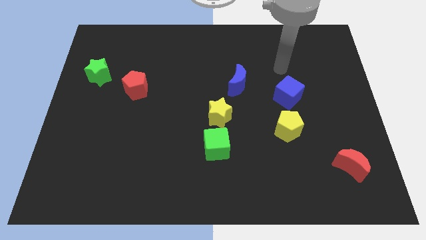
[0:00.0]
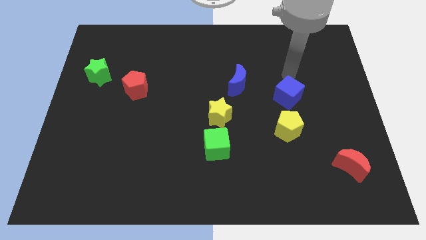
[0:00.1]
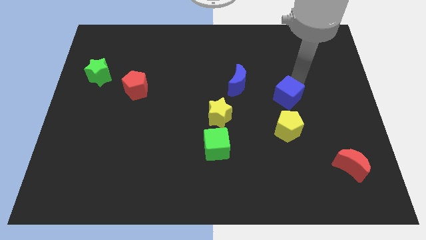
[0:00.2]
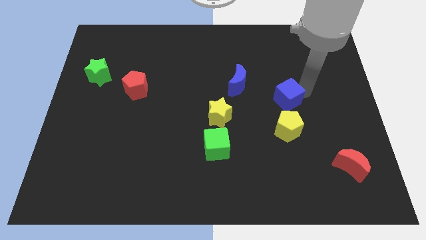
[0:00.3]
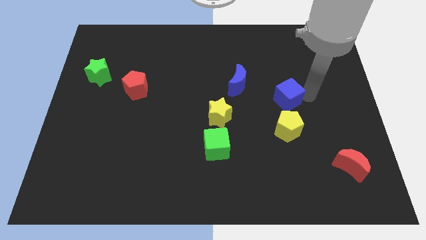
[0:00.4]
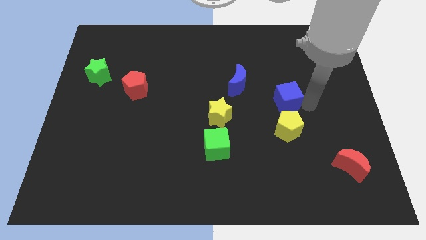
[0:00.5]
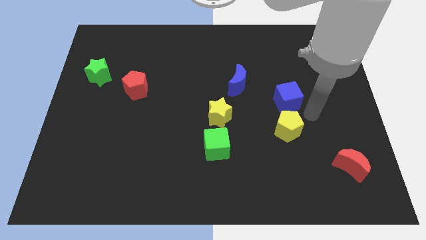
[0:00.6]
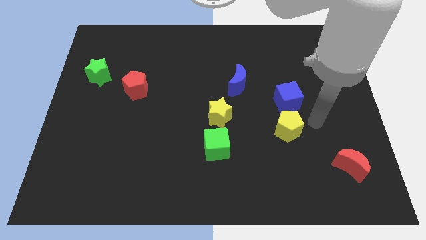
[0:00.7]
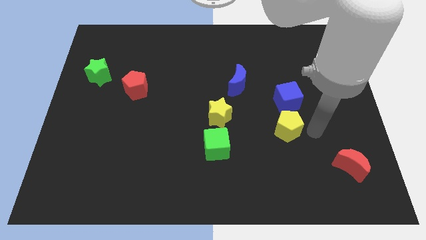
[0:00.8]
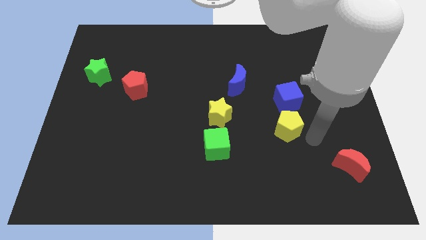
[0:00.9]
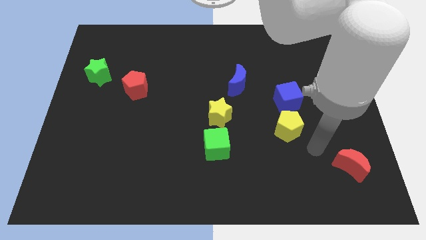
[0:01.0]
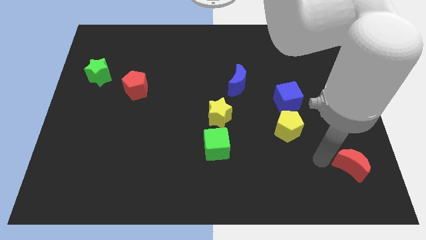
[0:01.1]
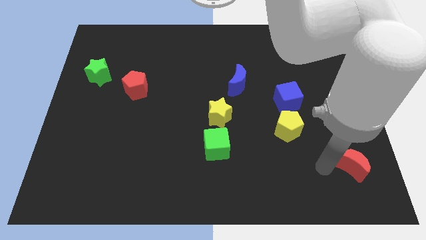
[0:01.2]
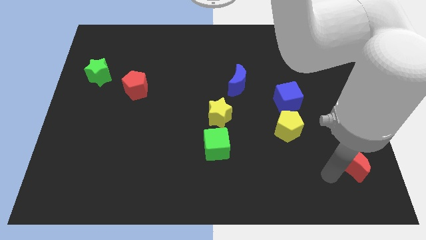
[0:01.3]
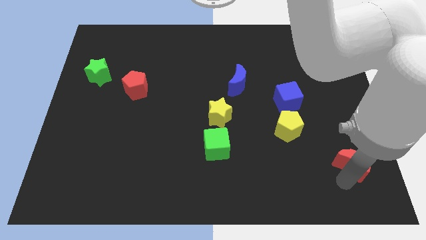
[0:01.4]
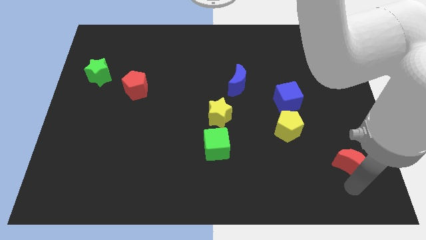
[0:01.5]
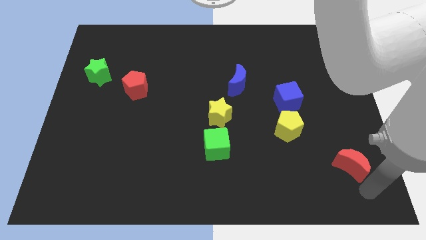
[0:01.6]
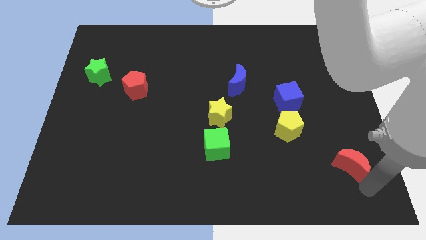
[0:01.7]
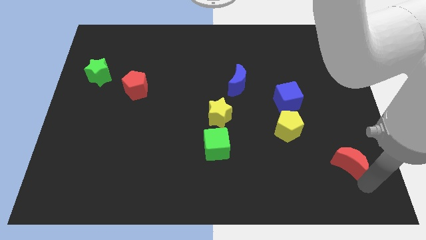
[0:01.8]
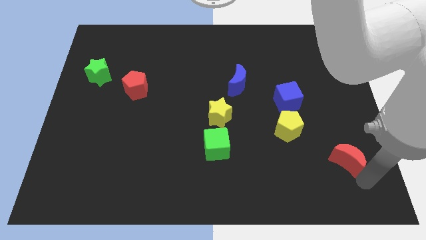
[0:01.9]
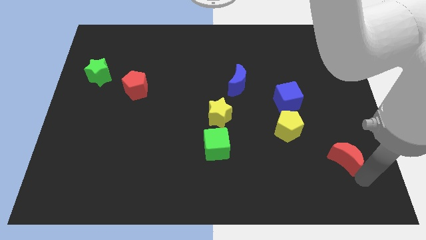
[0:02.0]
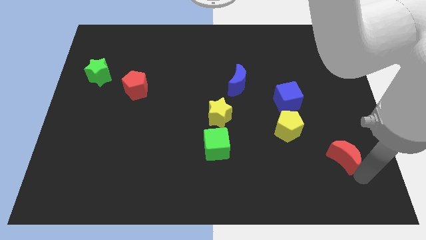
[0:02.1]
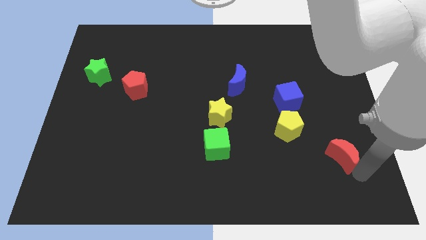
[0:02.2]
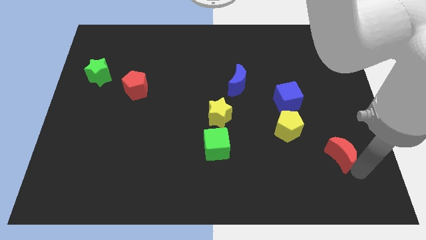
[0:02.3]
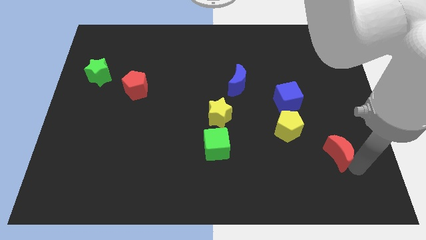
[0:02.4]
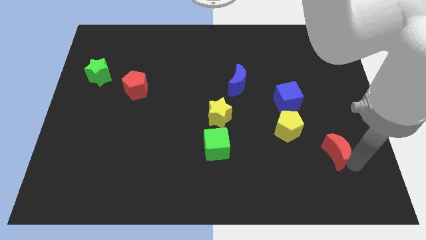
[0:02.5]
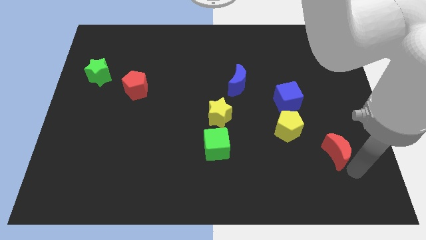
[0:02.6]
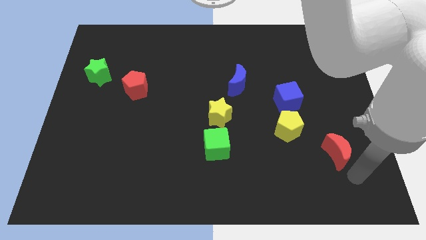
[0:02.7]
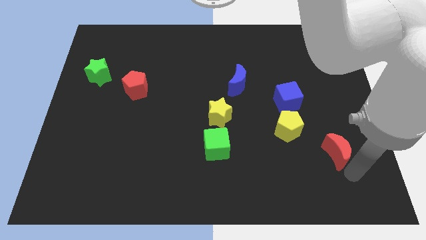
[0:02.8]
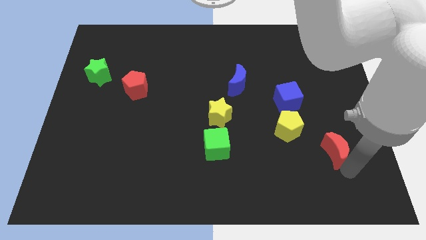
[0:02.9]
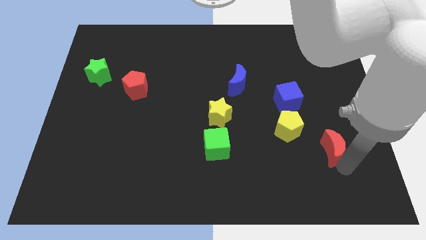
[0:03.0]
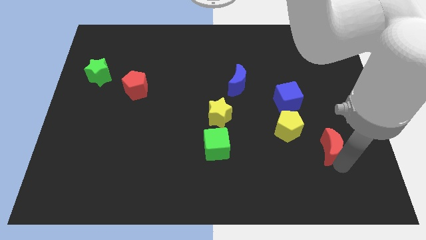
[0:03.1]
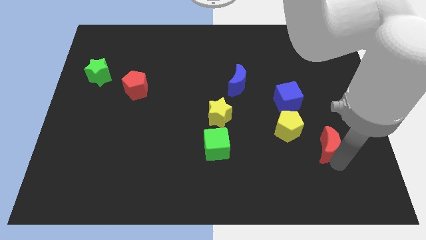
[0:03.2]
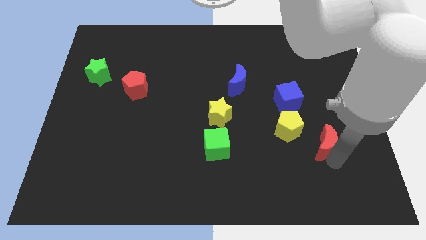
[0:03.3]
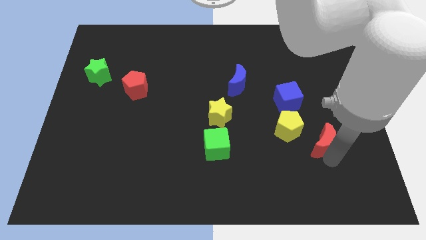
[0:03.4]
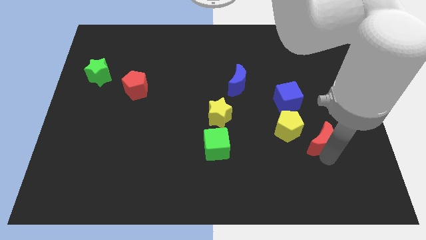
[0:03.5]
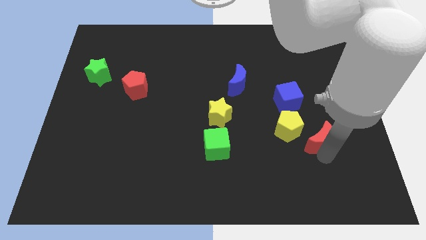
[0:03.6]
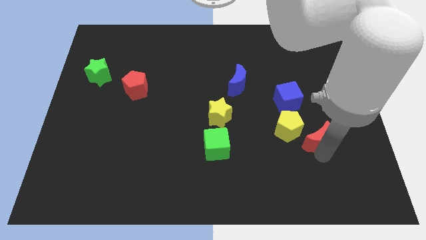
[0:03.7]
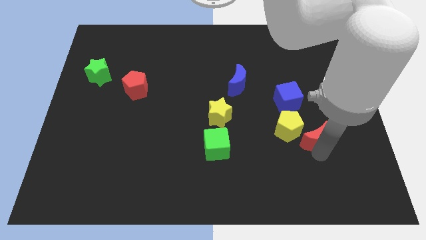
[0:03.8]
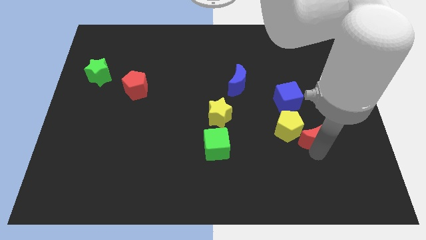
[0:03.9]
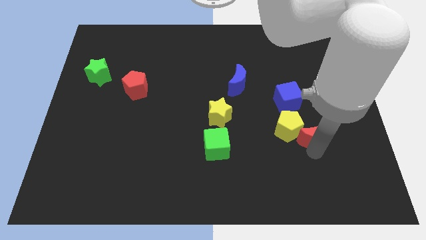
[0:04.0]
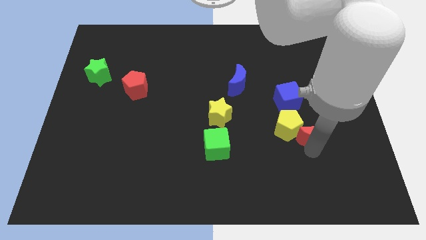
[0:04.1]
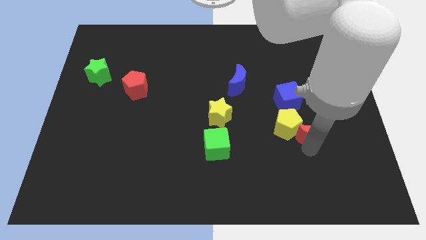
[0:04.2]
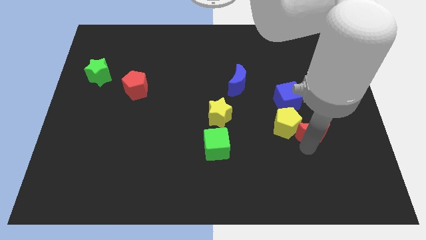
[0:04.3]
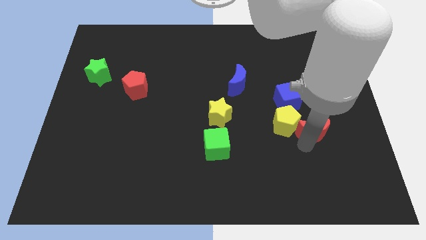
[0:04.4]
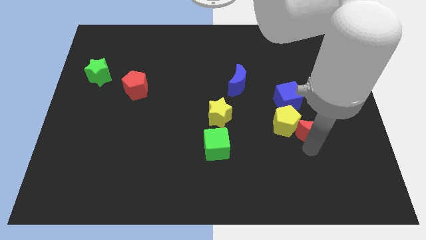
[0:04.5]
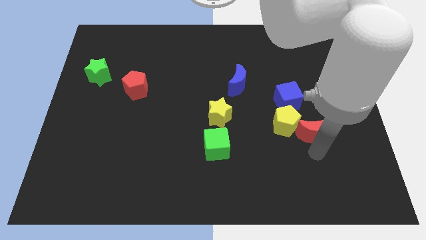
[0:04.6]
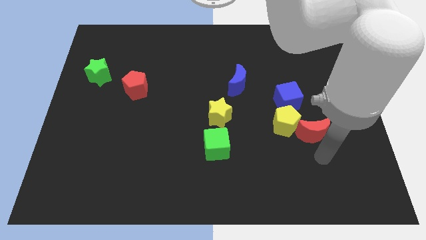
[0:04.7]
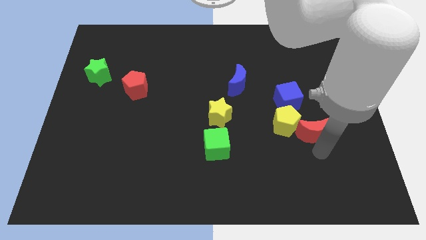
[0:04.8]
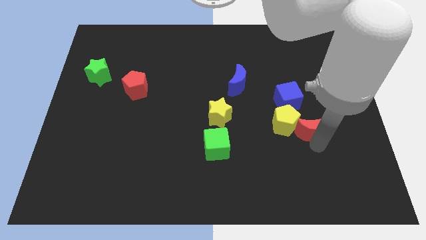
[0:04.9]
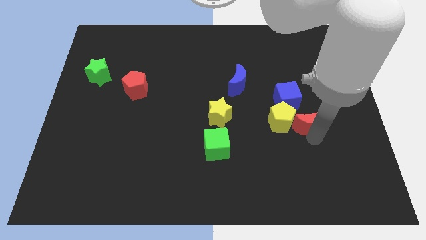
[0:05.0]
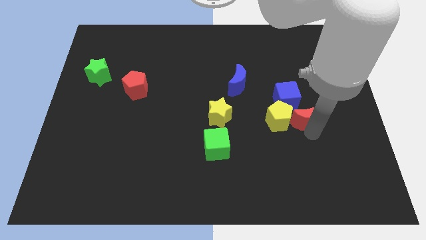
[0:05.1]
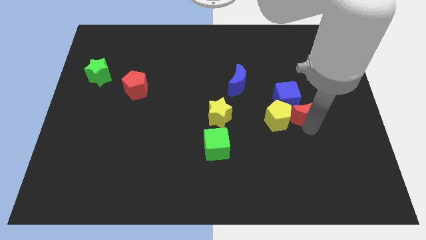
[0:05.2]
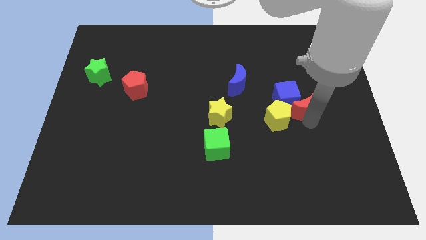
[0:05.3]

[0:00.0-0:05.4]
push the red moon close to the blue cube

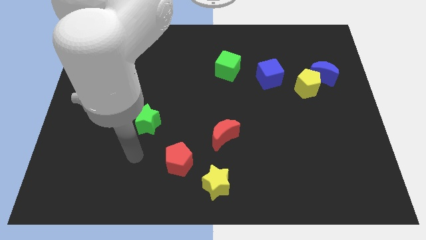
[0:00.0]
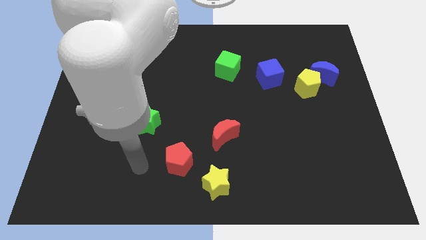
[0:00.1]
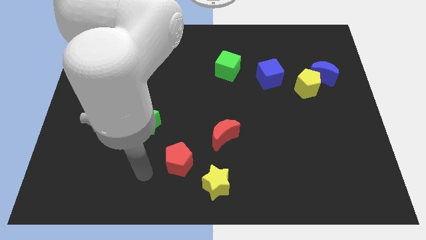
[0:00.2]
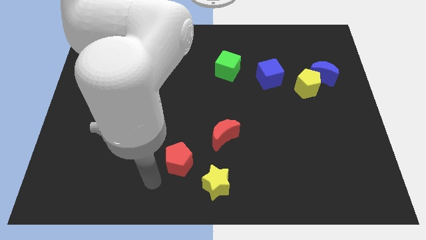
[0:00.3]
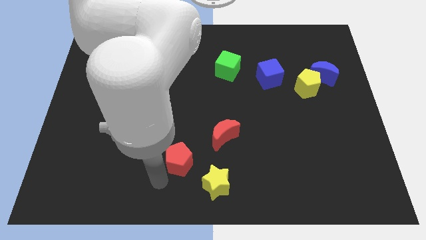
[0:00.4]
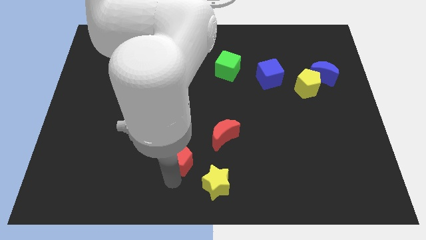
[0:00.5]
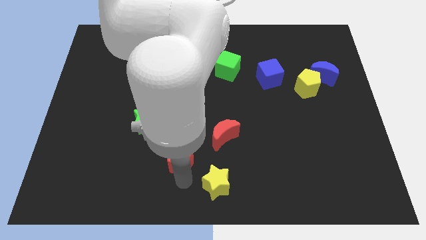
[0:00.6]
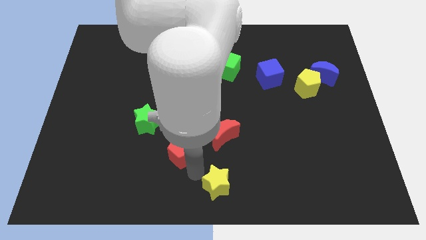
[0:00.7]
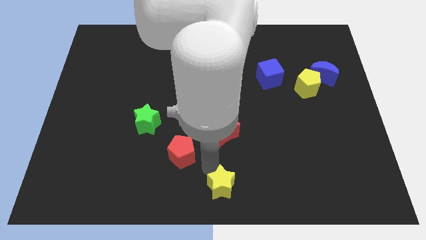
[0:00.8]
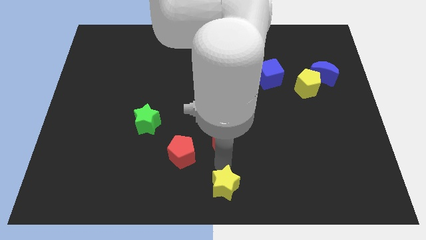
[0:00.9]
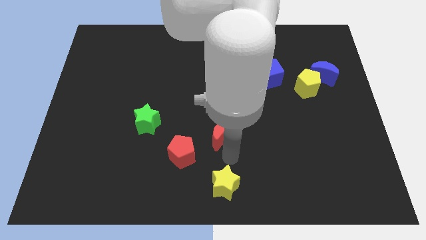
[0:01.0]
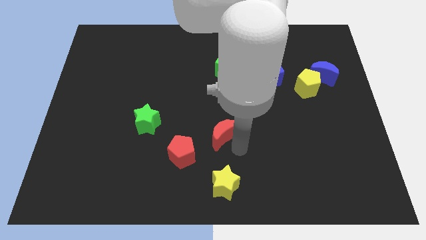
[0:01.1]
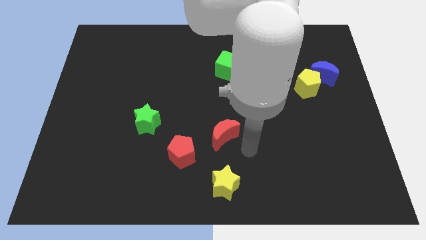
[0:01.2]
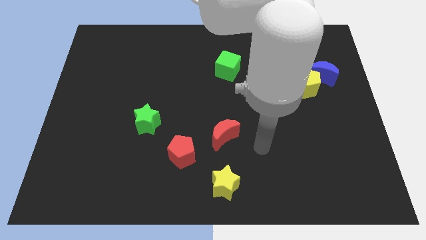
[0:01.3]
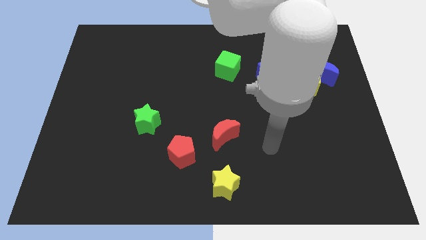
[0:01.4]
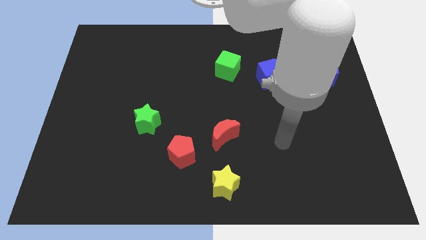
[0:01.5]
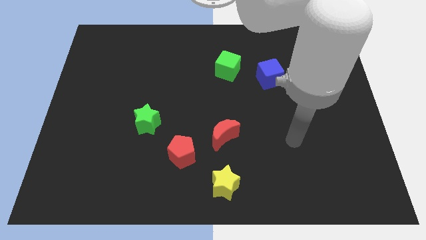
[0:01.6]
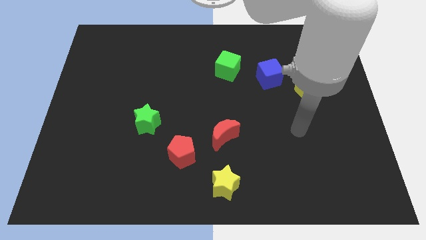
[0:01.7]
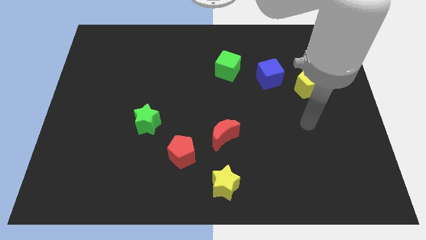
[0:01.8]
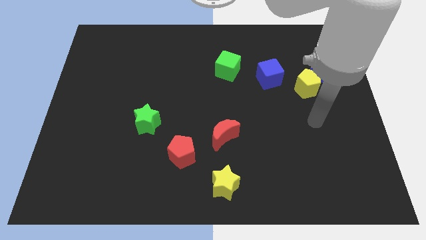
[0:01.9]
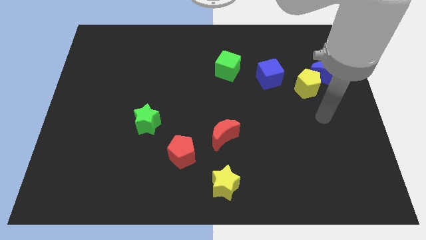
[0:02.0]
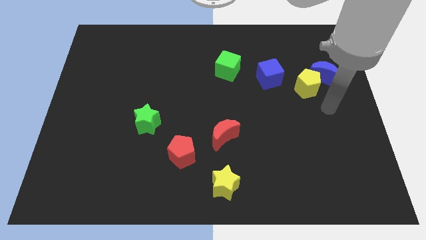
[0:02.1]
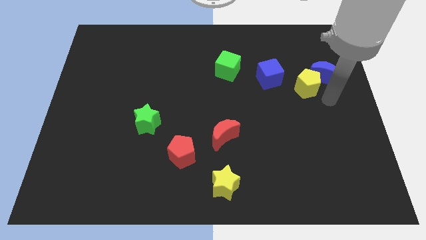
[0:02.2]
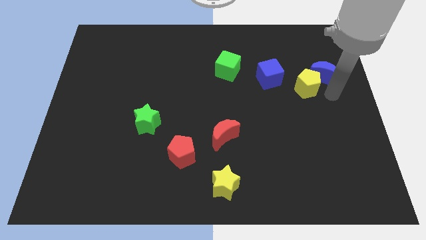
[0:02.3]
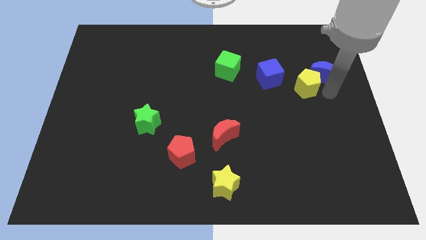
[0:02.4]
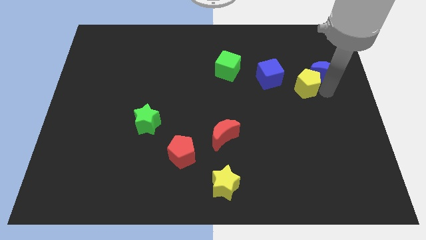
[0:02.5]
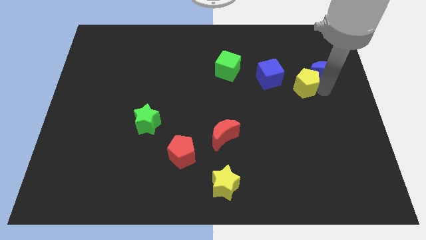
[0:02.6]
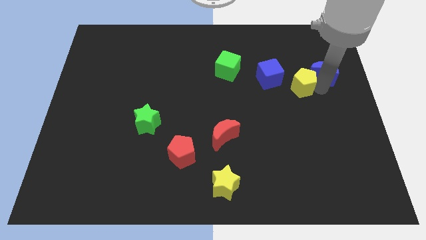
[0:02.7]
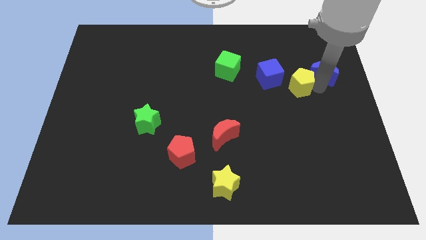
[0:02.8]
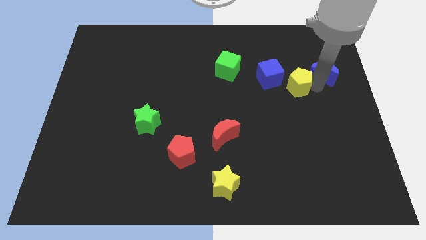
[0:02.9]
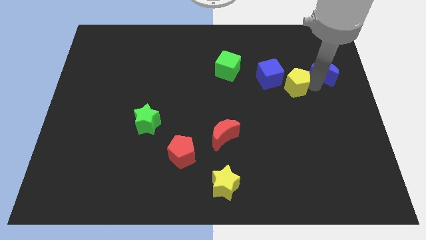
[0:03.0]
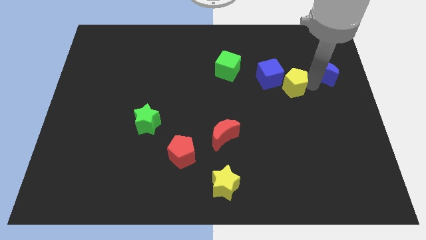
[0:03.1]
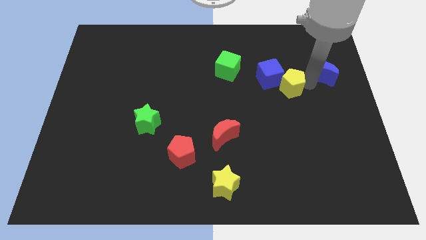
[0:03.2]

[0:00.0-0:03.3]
move the yellow pentagon towards the blue cube
